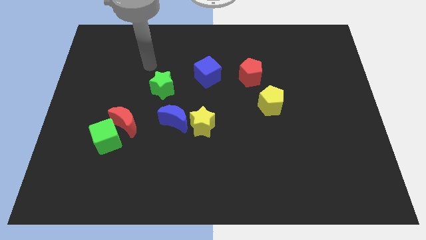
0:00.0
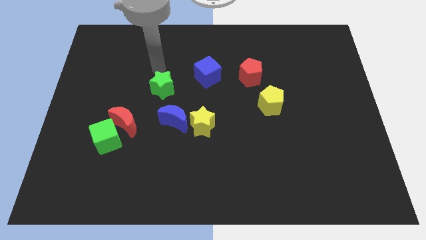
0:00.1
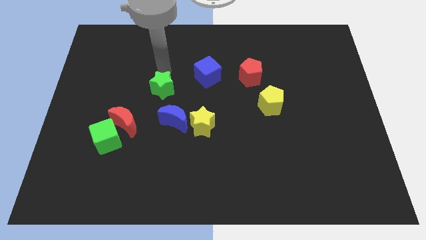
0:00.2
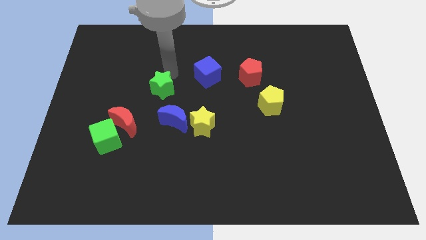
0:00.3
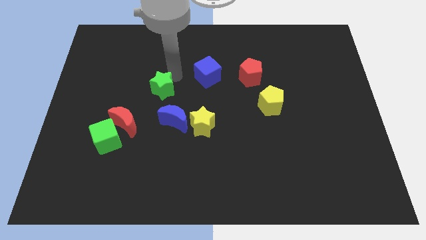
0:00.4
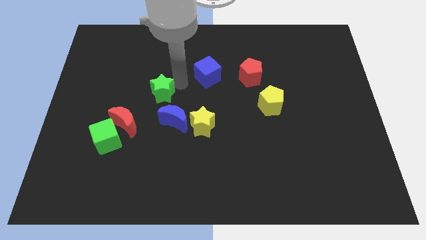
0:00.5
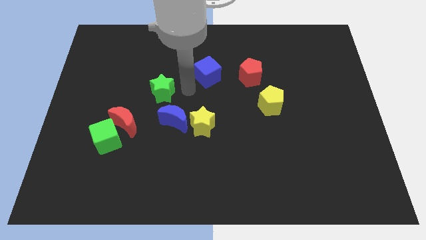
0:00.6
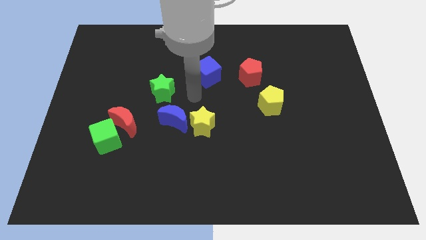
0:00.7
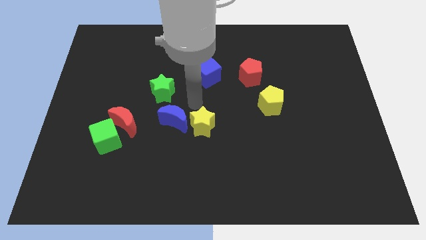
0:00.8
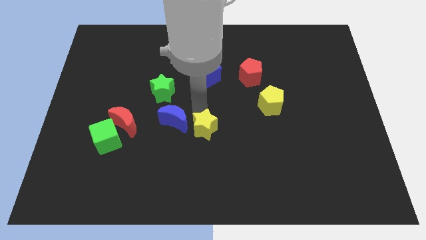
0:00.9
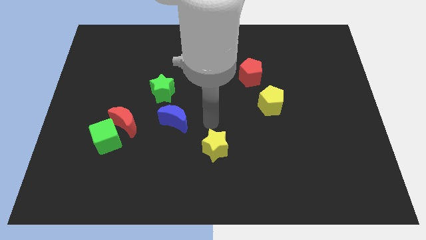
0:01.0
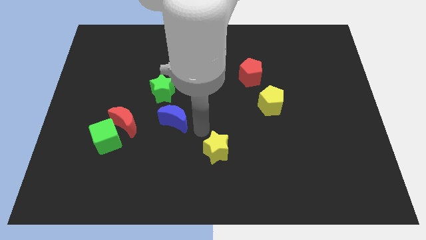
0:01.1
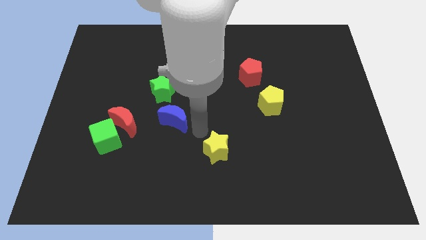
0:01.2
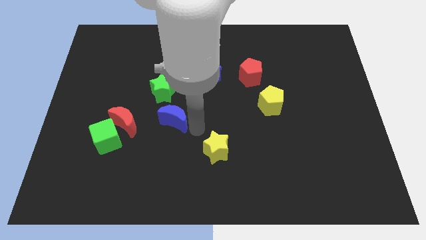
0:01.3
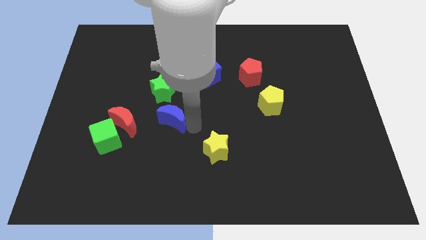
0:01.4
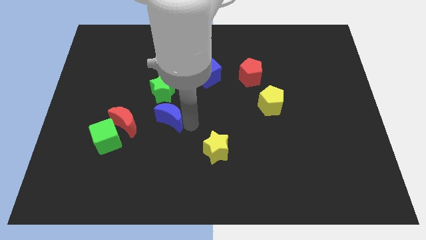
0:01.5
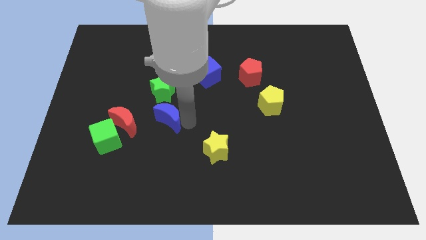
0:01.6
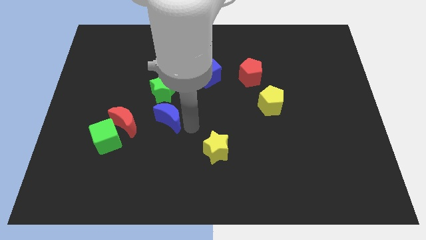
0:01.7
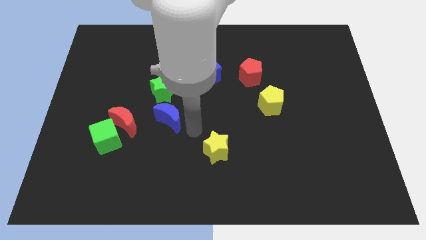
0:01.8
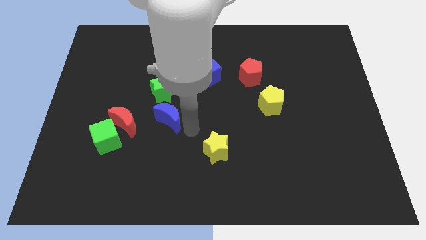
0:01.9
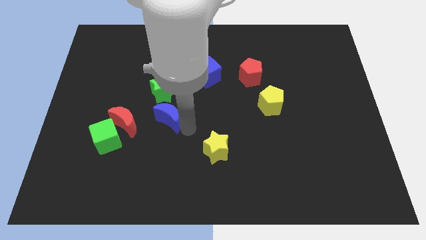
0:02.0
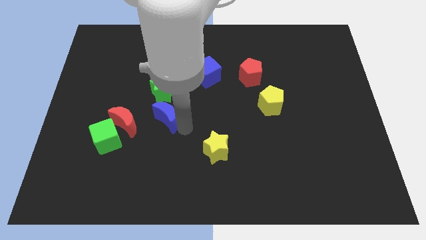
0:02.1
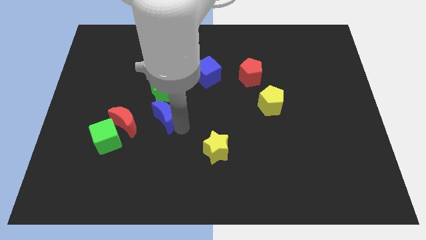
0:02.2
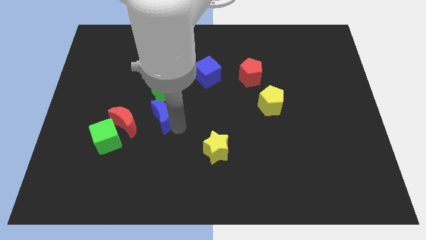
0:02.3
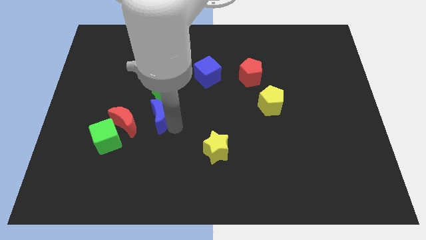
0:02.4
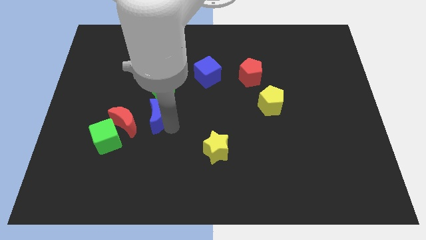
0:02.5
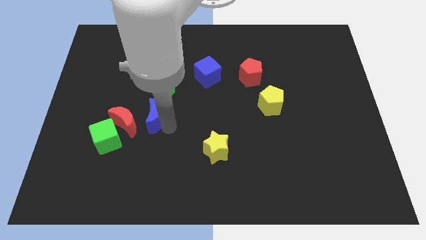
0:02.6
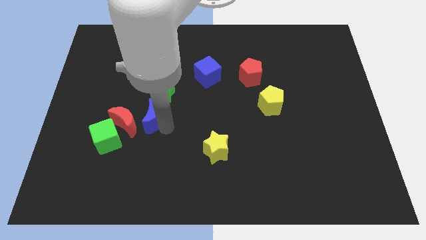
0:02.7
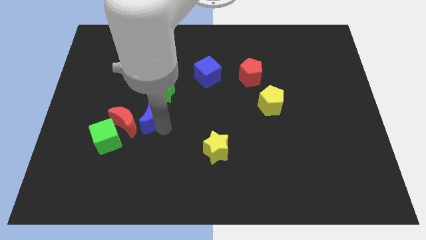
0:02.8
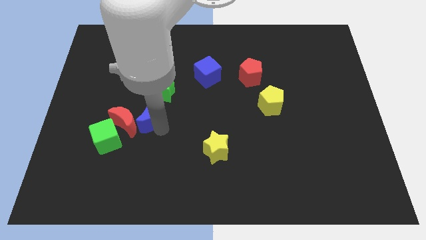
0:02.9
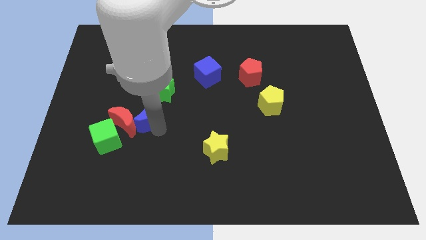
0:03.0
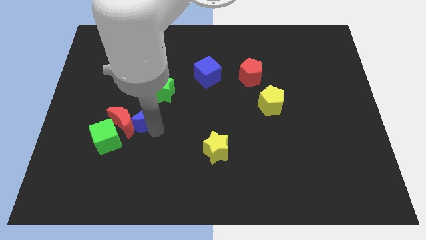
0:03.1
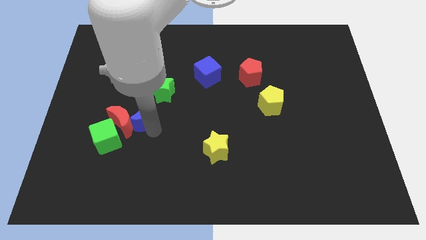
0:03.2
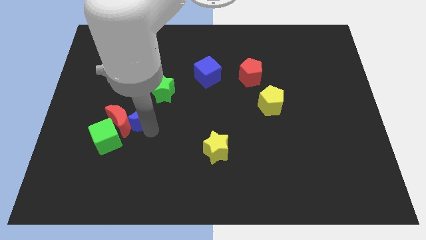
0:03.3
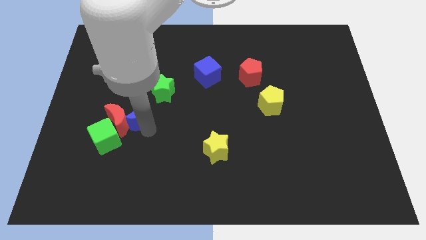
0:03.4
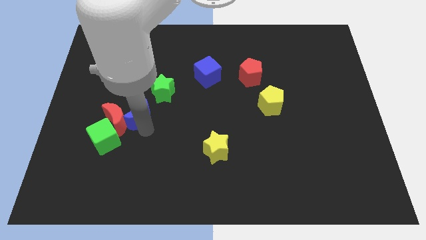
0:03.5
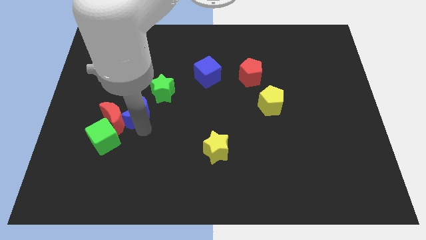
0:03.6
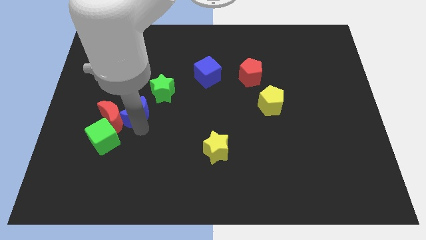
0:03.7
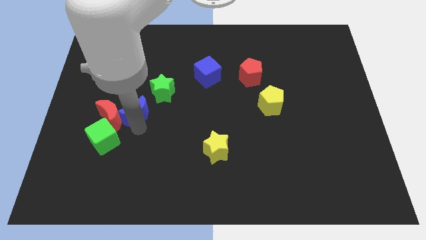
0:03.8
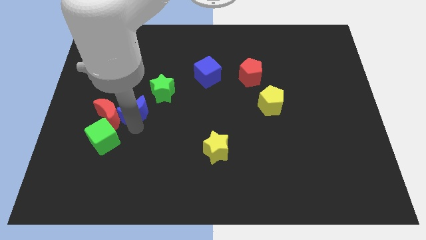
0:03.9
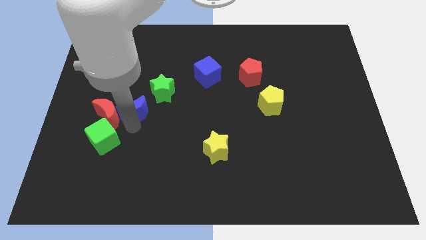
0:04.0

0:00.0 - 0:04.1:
move the blue moon a little up and then left

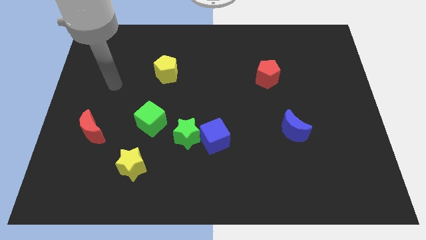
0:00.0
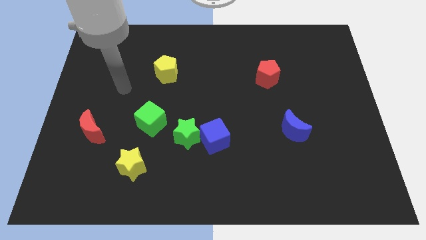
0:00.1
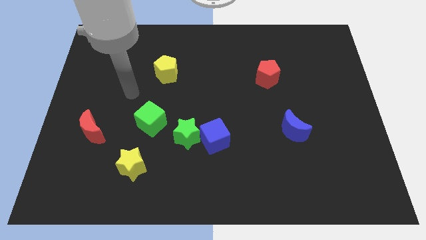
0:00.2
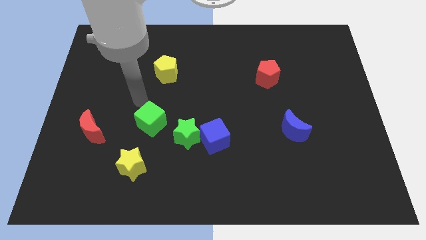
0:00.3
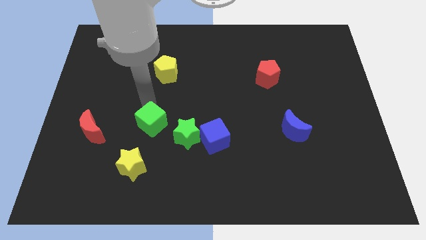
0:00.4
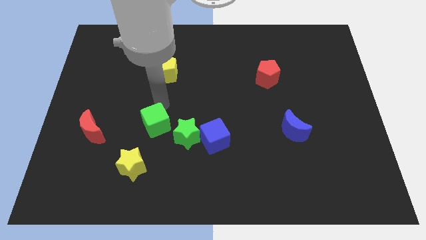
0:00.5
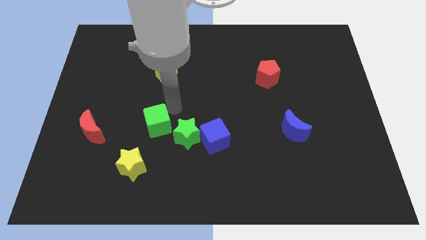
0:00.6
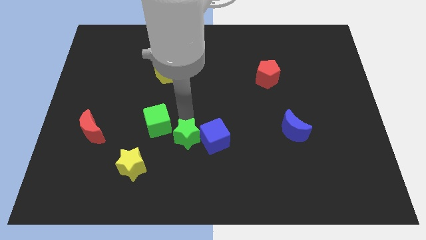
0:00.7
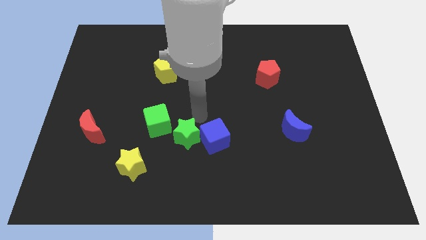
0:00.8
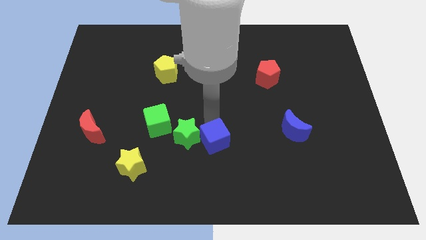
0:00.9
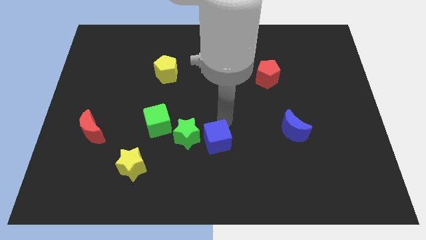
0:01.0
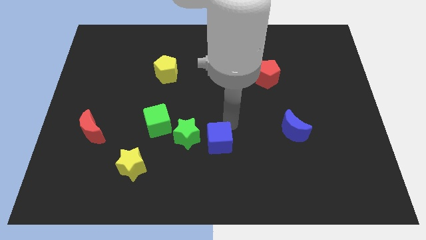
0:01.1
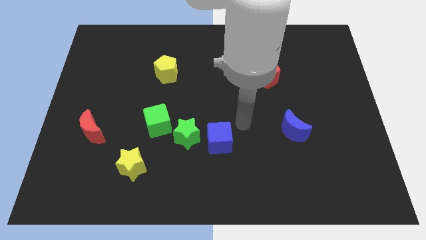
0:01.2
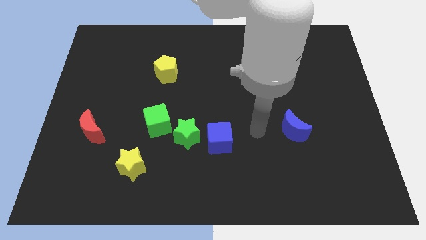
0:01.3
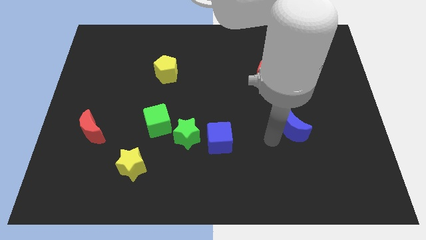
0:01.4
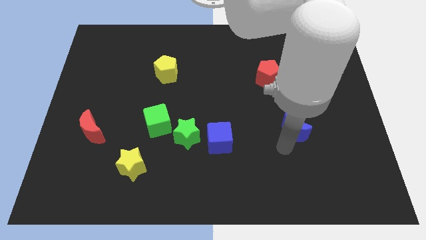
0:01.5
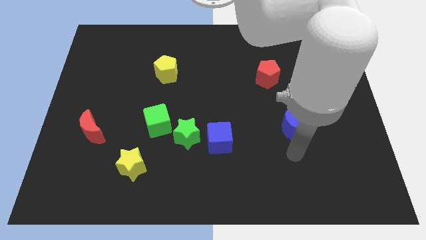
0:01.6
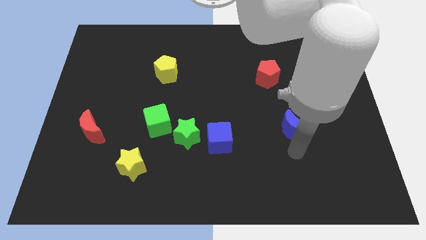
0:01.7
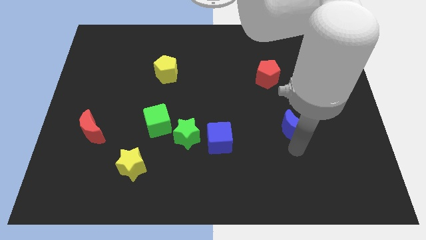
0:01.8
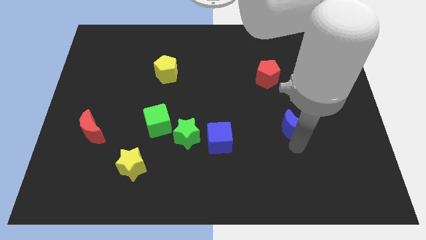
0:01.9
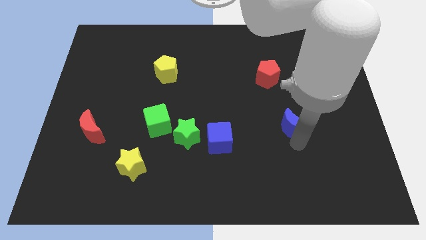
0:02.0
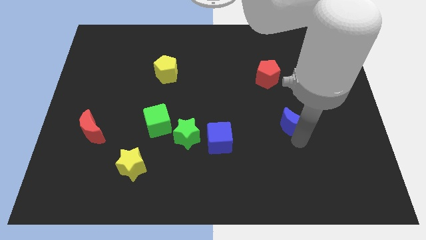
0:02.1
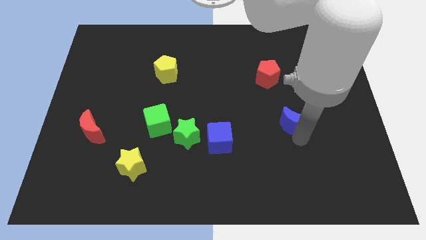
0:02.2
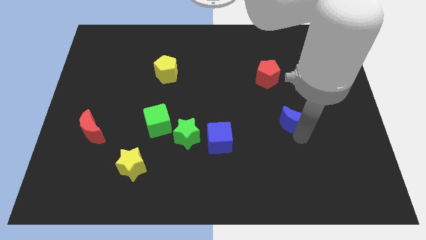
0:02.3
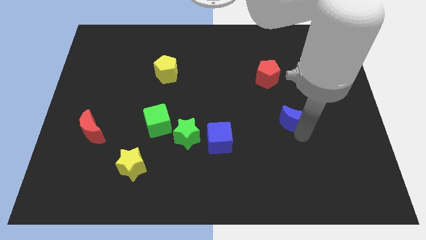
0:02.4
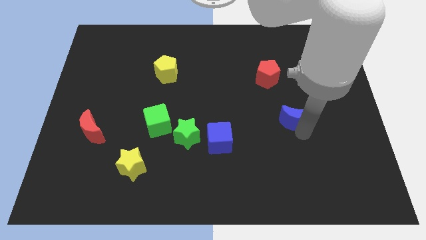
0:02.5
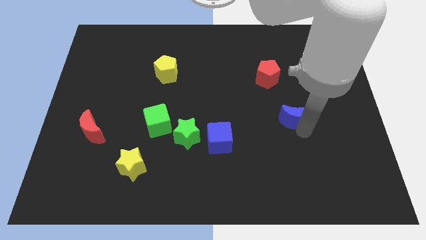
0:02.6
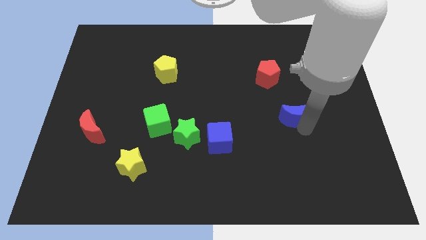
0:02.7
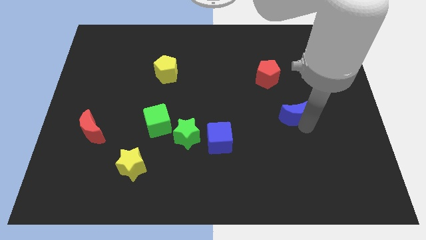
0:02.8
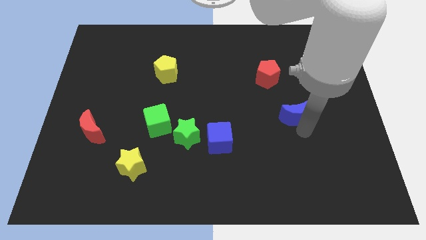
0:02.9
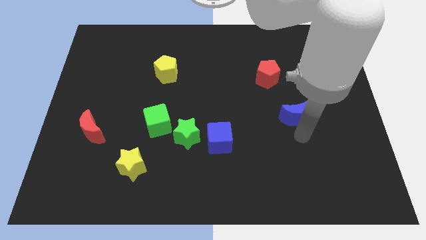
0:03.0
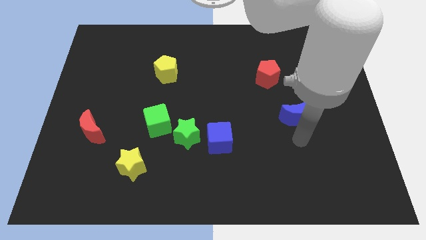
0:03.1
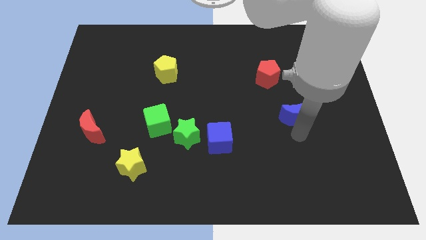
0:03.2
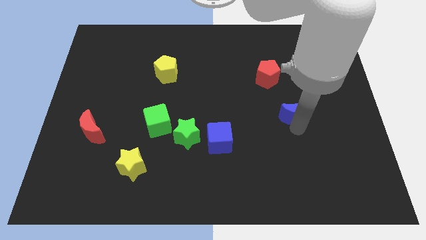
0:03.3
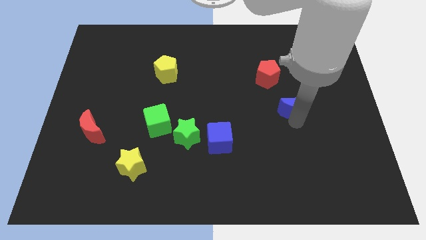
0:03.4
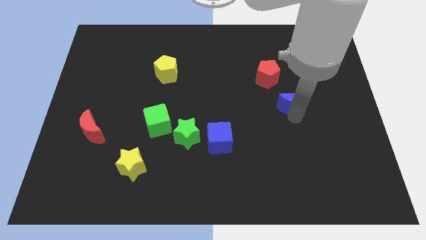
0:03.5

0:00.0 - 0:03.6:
slide the blue moon upwards a little

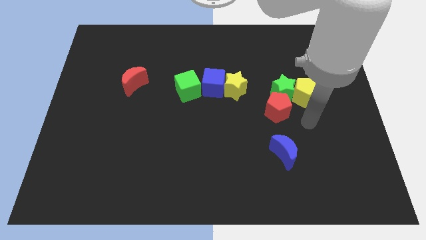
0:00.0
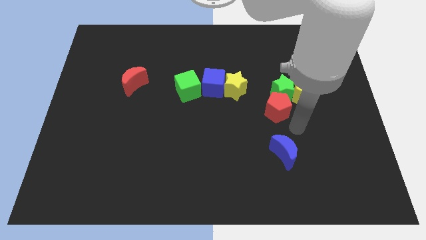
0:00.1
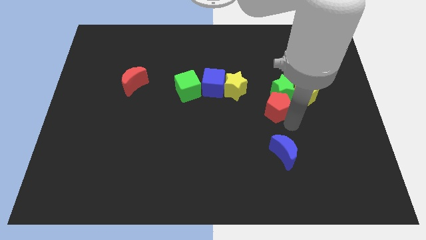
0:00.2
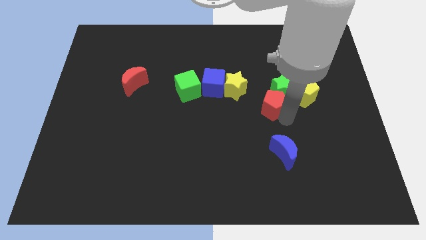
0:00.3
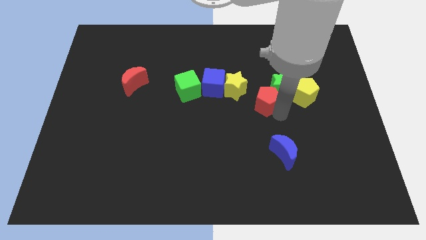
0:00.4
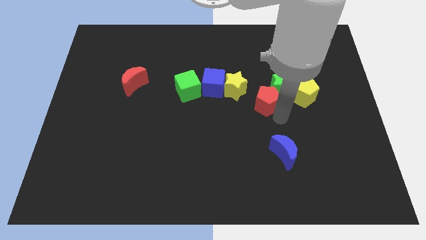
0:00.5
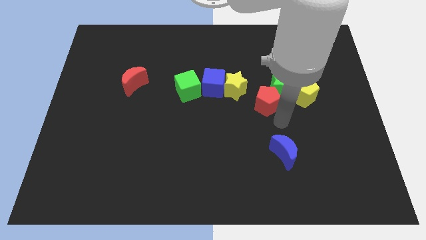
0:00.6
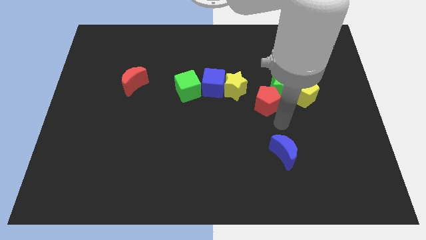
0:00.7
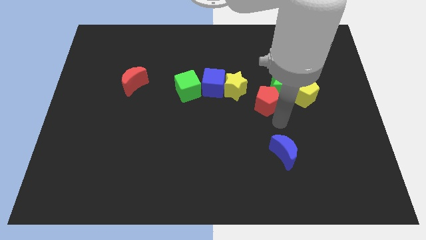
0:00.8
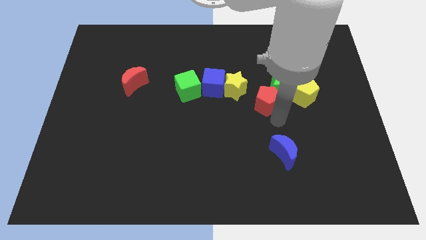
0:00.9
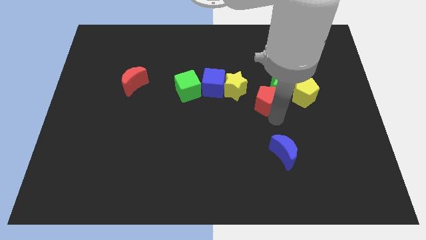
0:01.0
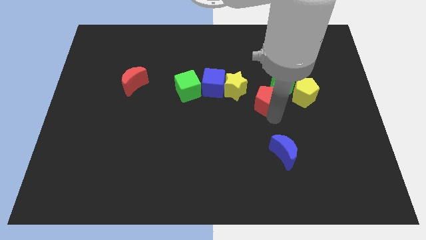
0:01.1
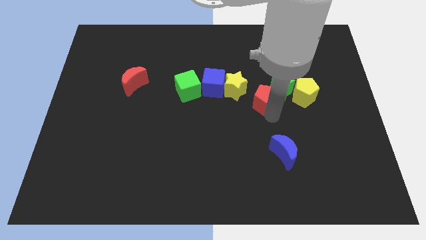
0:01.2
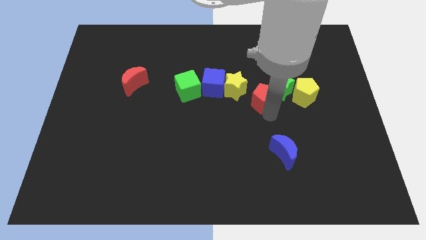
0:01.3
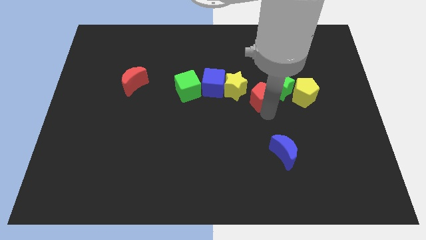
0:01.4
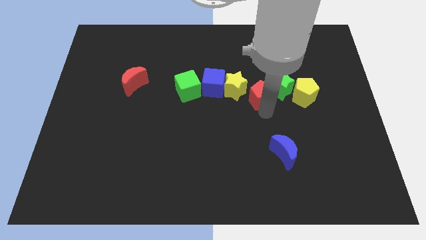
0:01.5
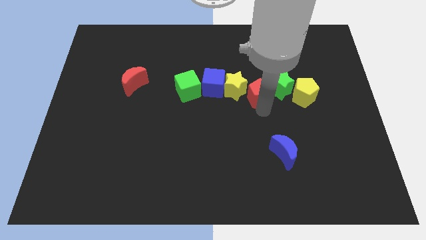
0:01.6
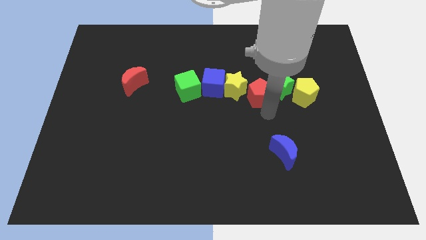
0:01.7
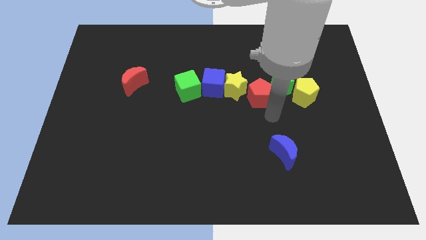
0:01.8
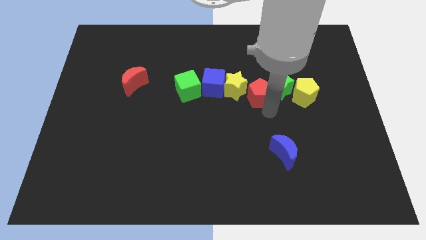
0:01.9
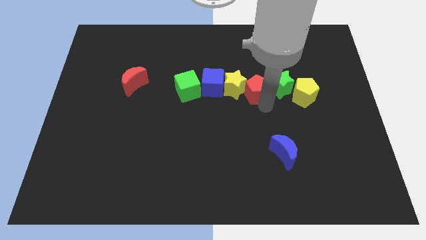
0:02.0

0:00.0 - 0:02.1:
slightly push the red pentagon up and to the left
